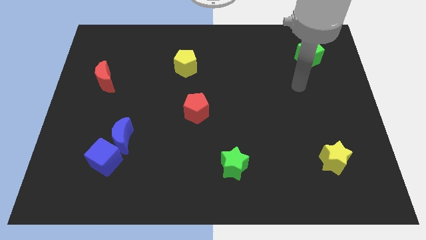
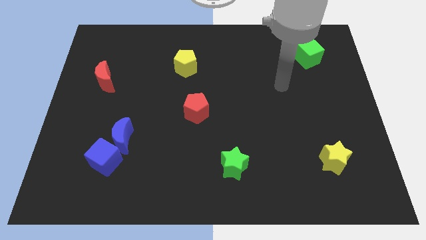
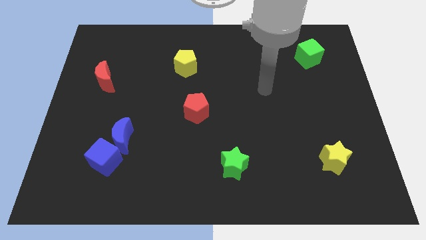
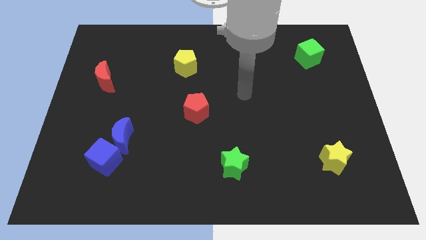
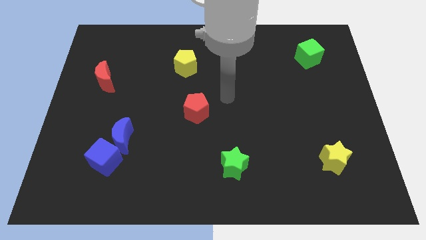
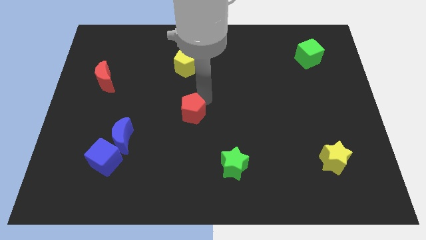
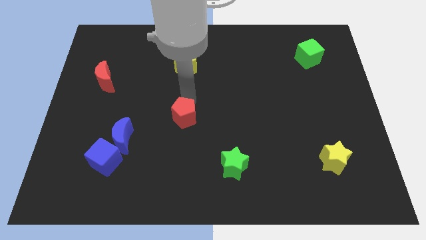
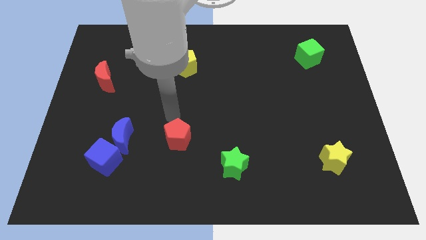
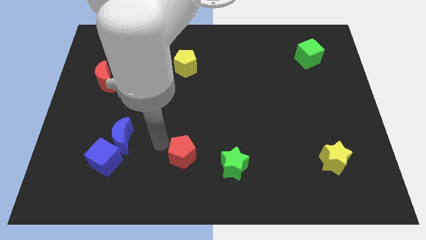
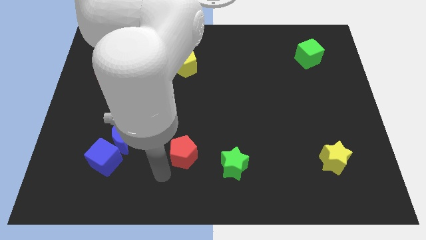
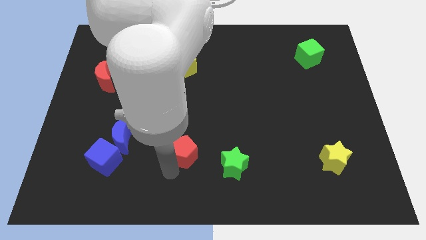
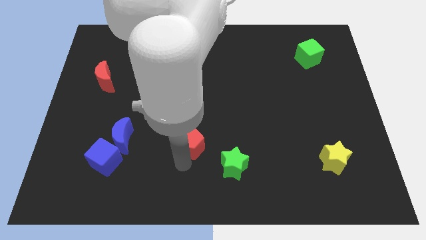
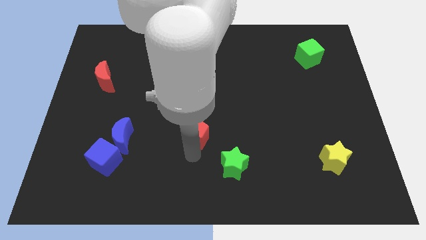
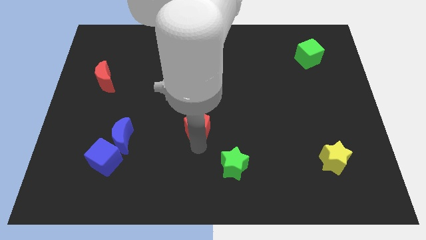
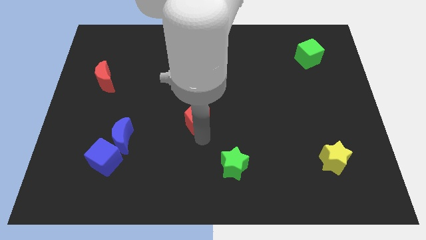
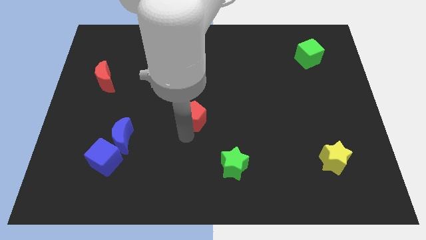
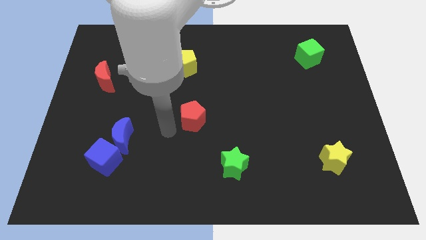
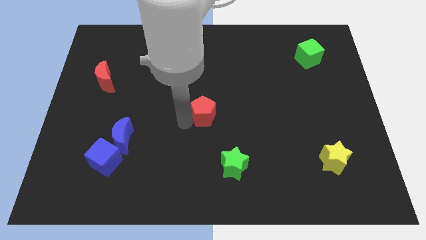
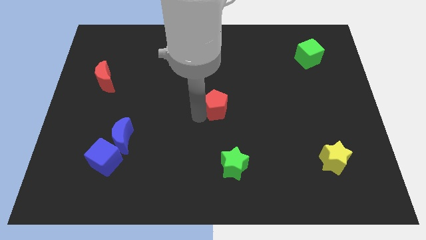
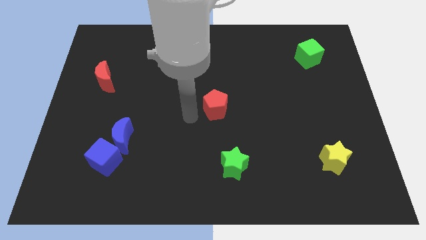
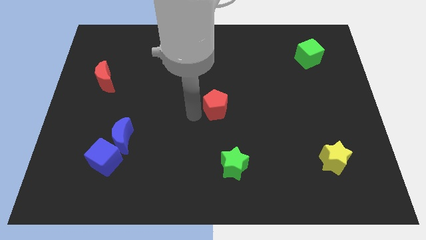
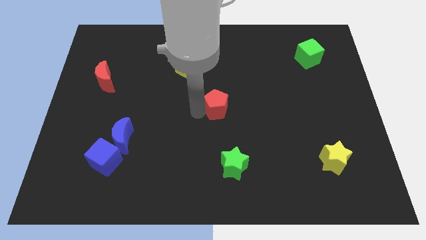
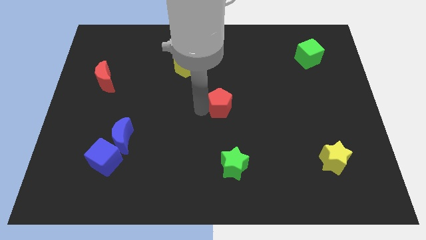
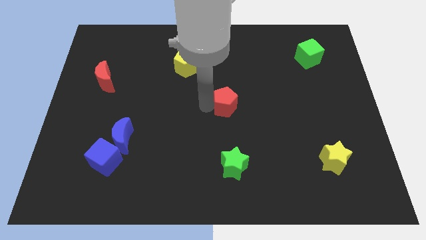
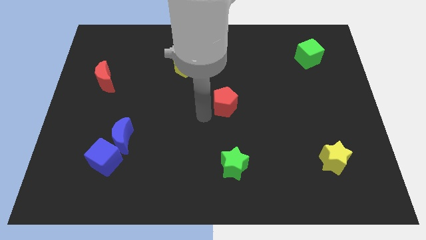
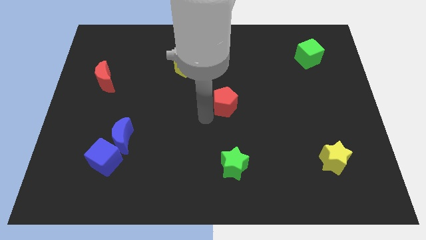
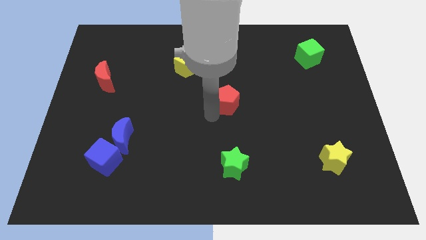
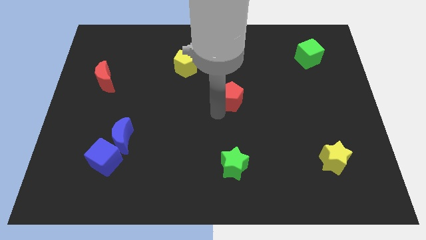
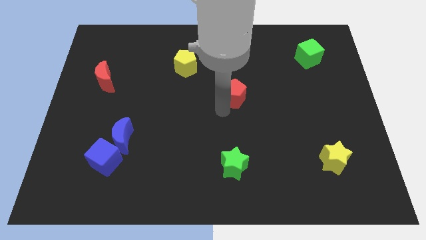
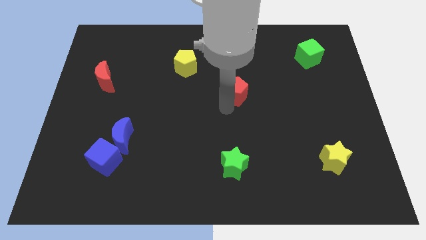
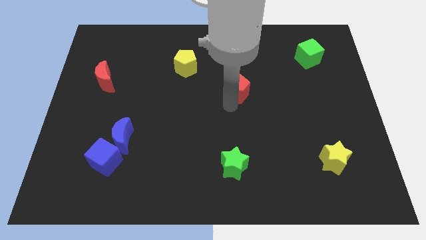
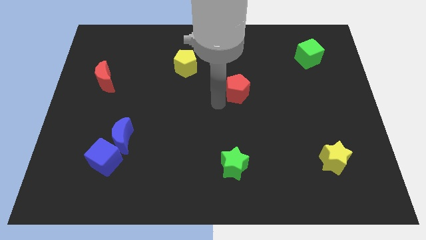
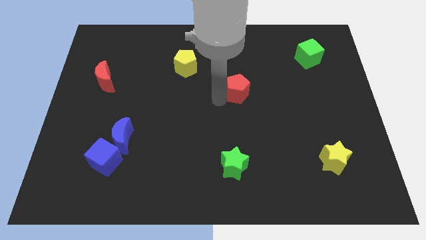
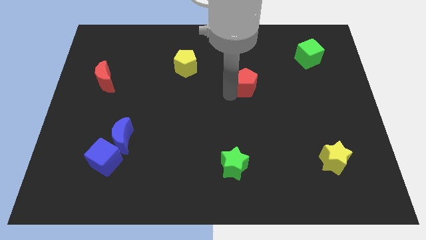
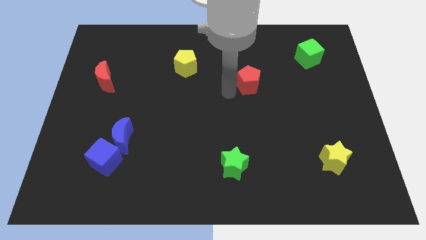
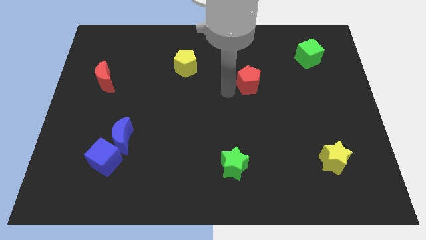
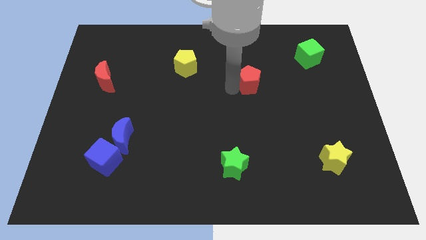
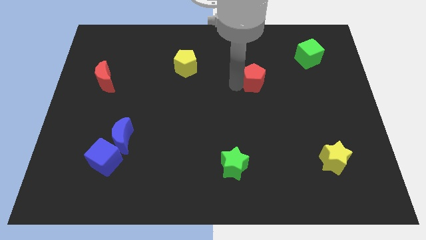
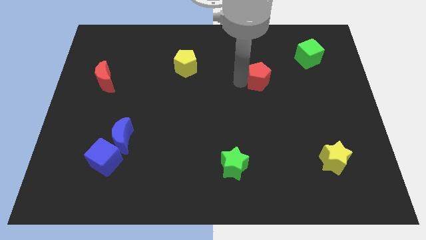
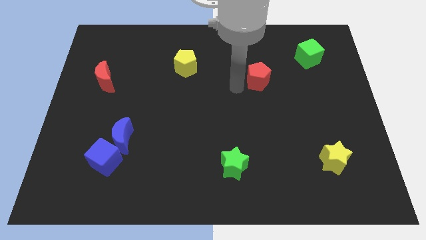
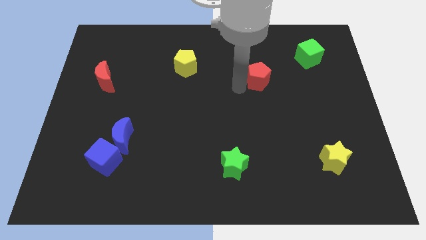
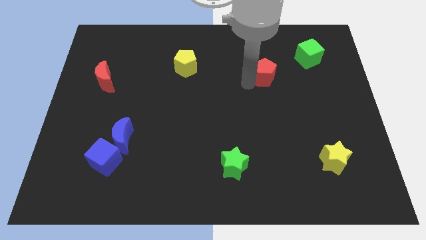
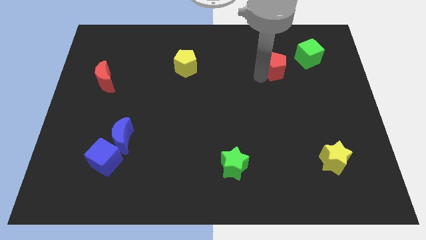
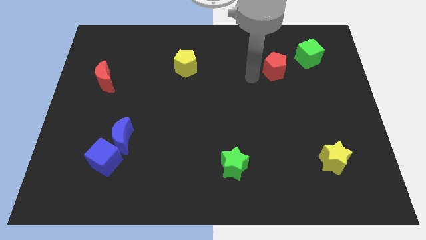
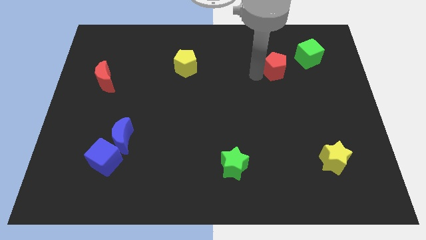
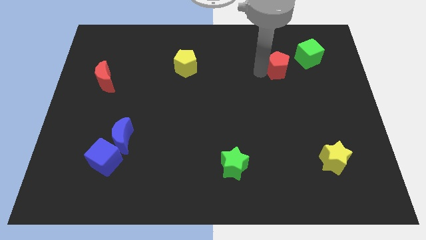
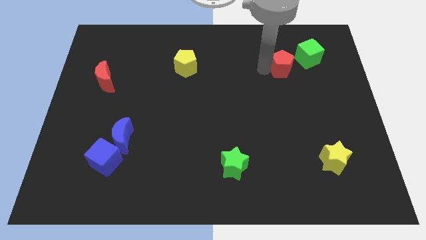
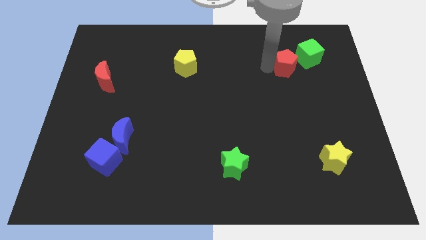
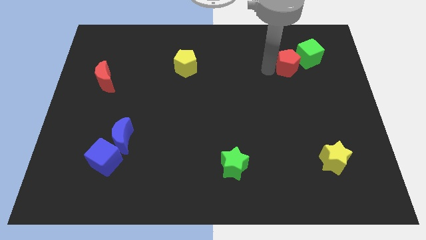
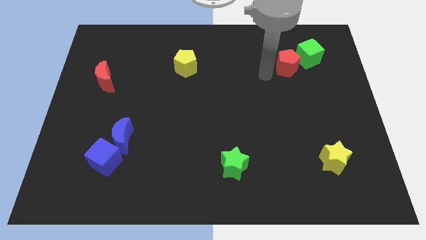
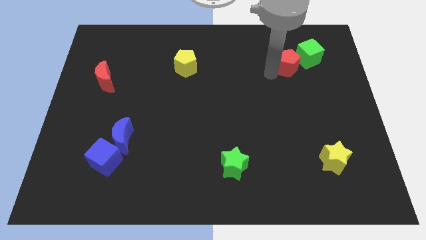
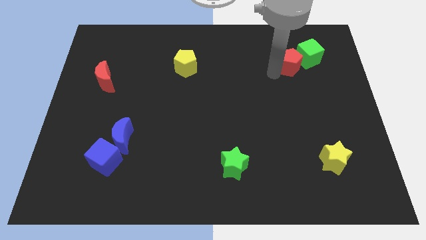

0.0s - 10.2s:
slide the red pentagon close to the green cube

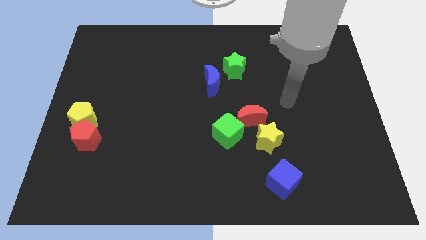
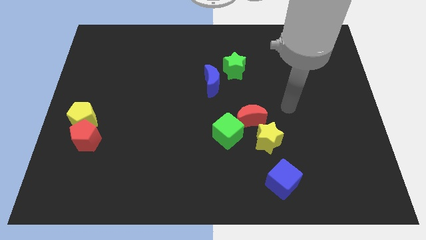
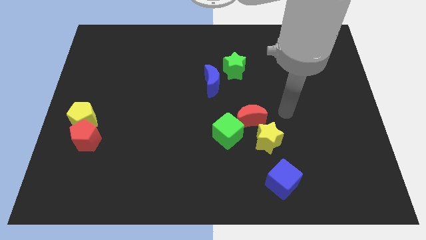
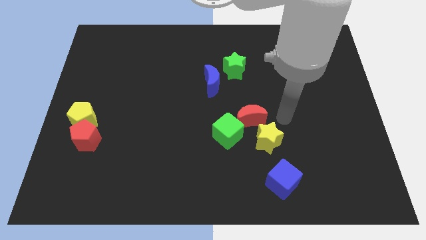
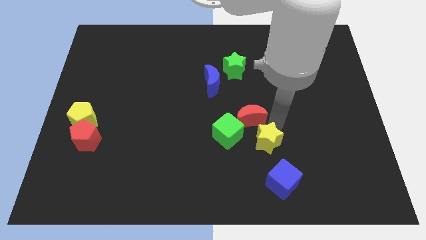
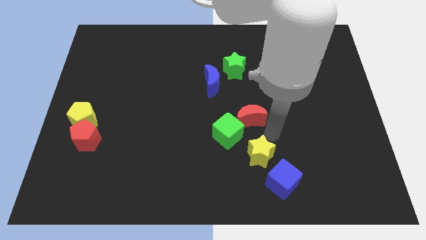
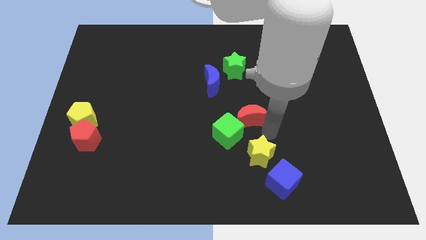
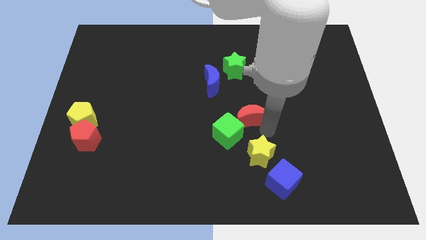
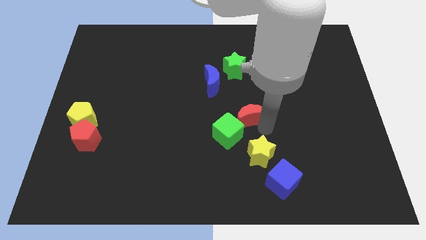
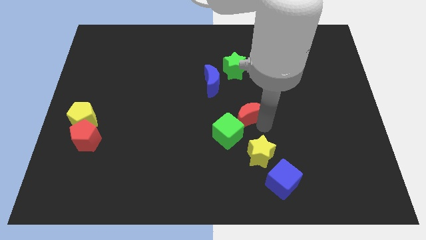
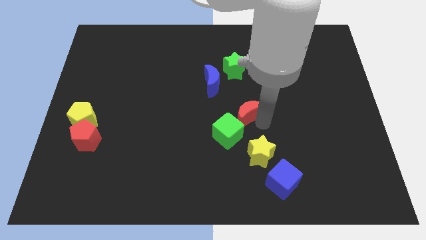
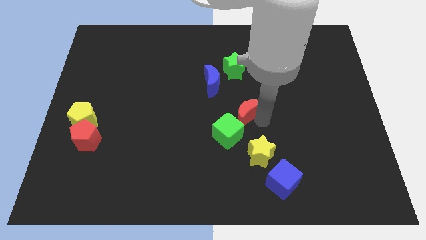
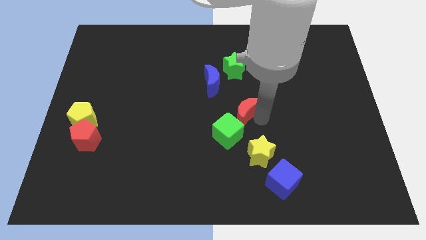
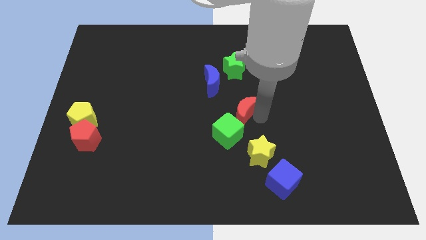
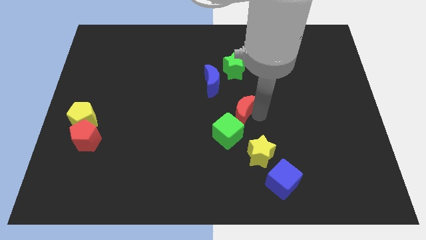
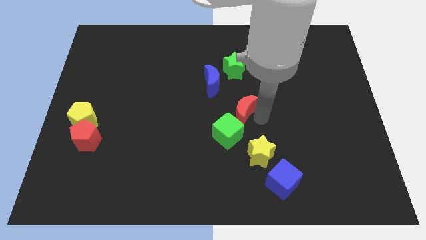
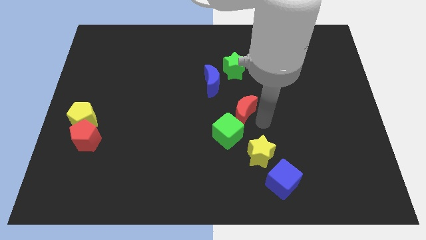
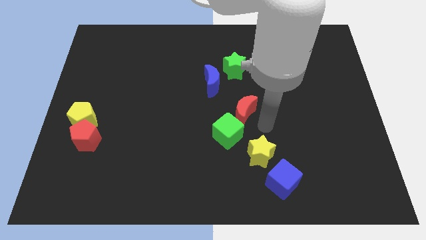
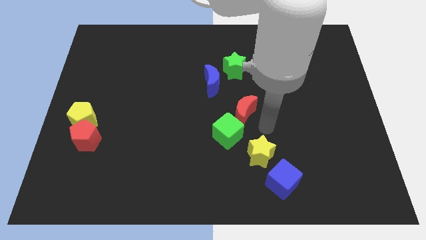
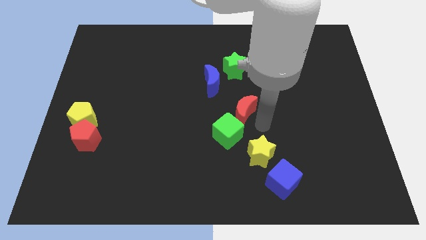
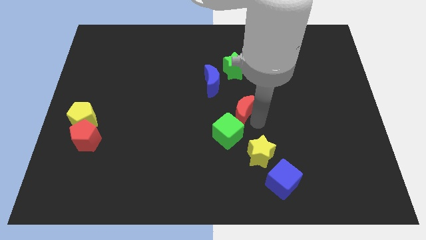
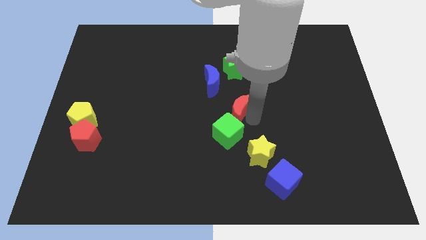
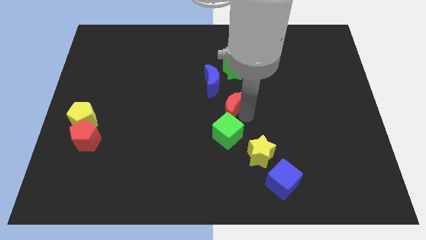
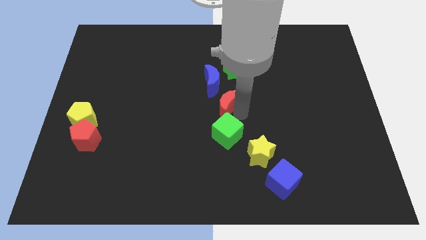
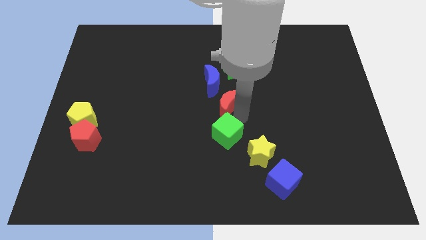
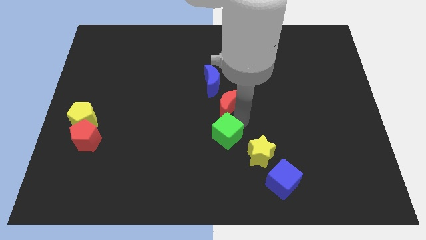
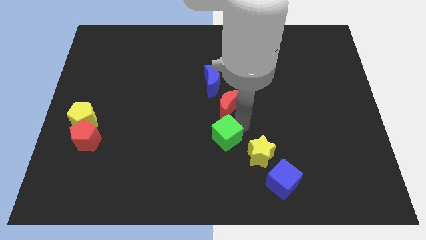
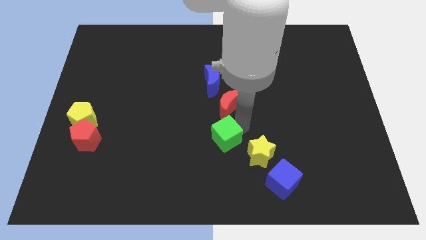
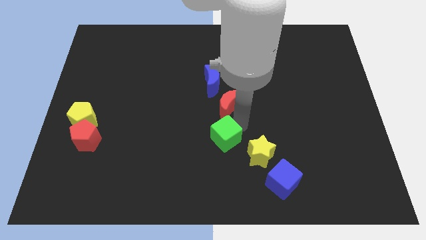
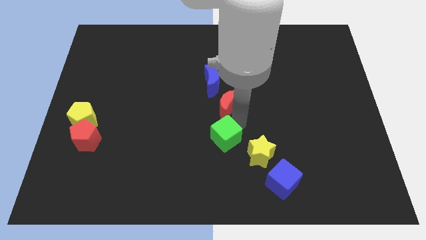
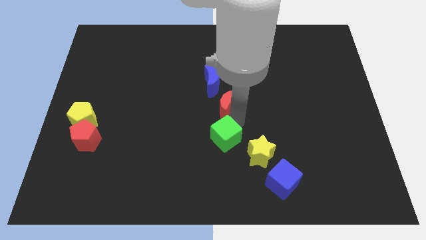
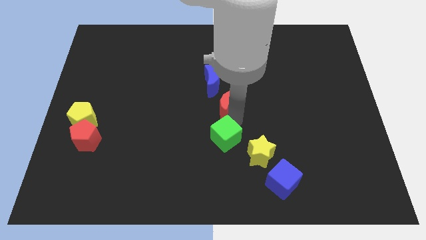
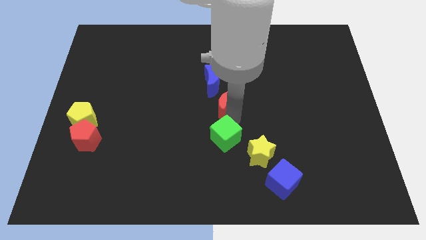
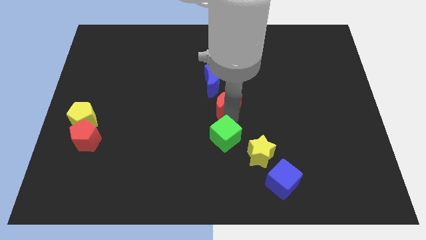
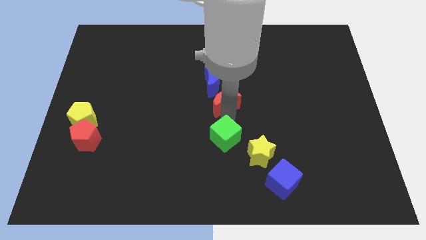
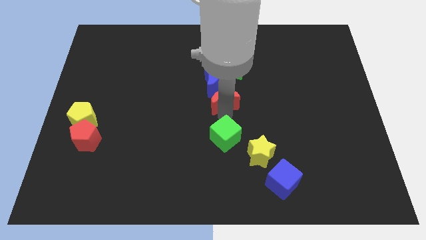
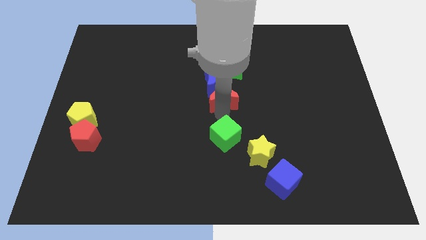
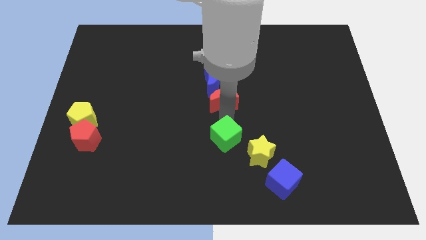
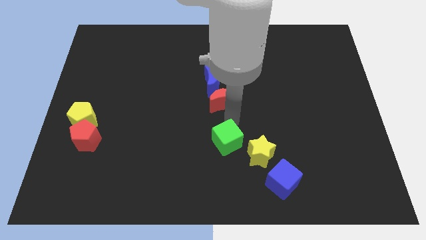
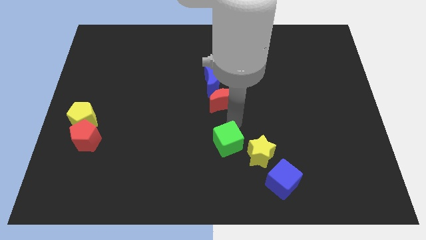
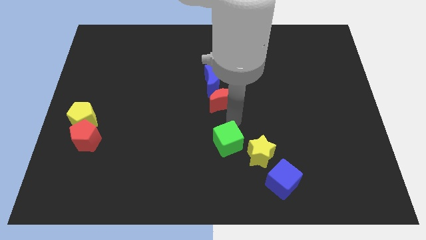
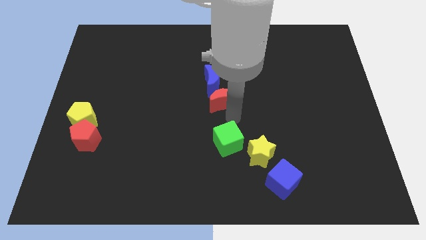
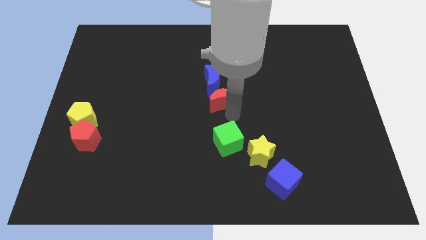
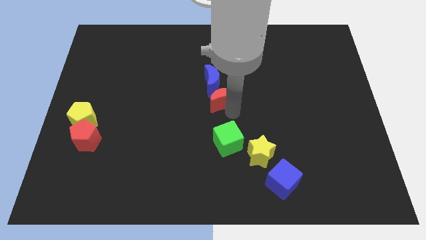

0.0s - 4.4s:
move the red moon to the blue moon
